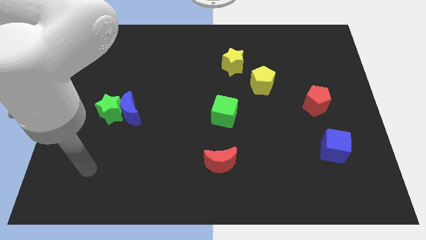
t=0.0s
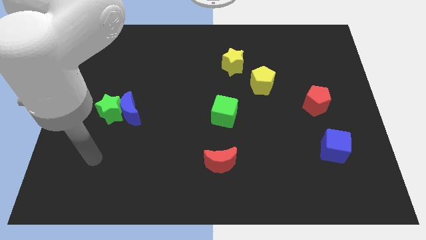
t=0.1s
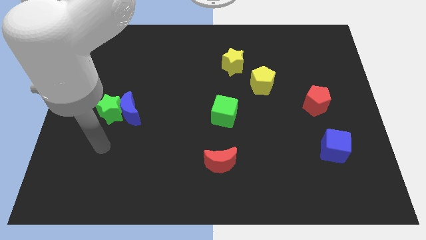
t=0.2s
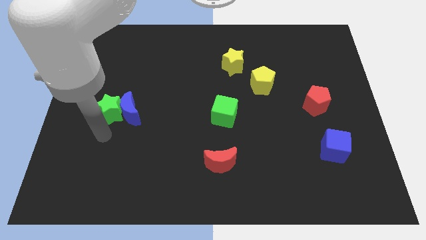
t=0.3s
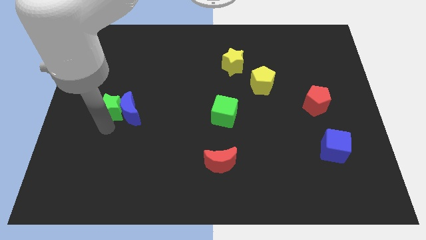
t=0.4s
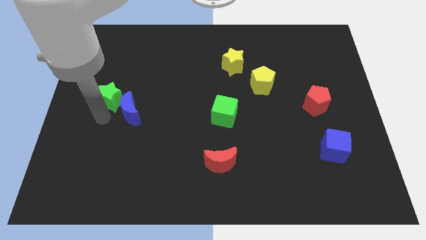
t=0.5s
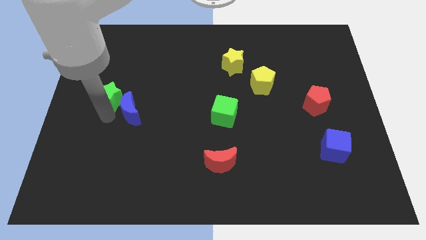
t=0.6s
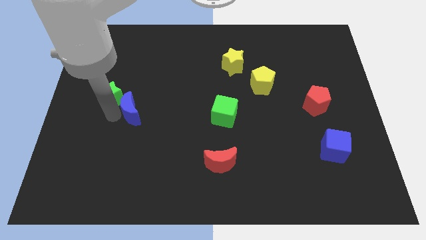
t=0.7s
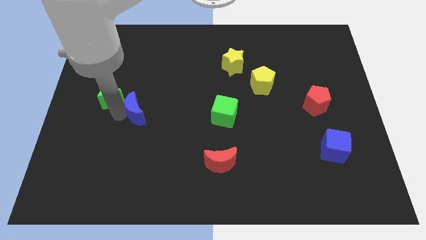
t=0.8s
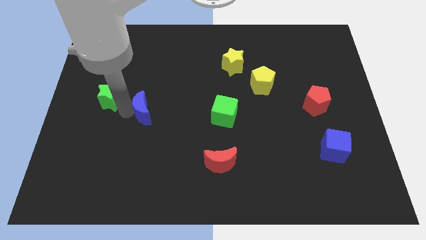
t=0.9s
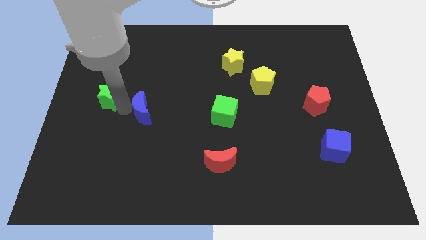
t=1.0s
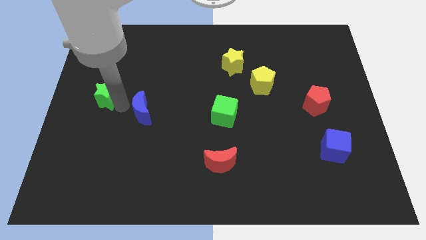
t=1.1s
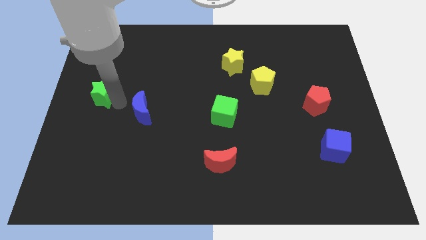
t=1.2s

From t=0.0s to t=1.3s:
pull the blue moon apart from the green star

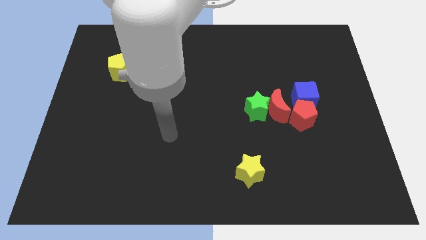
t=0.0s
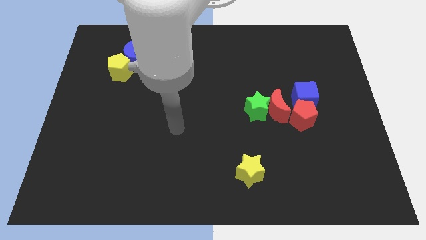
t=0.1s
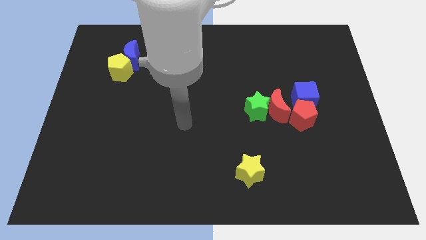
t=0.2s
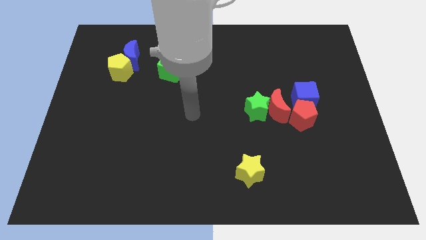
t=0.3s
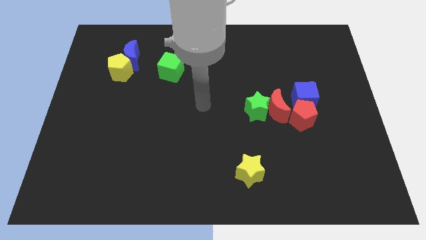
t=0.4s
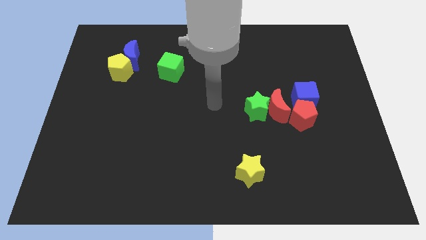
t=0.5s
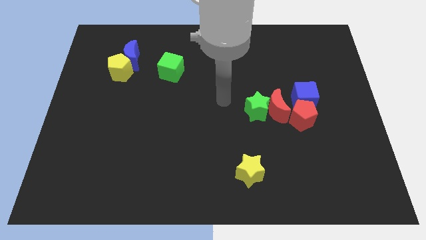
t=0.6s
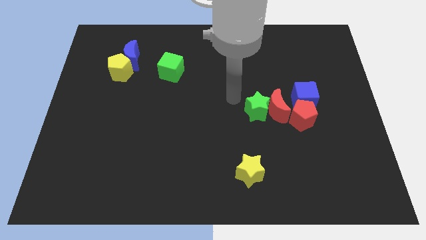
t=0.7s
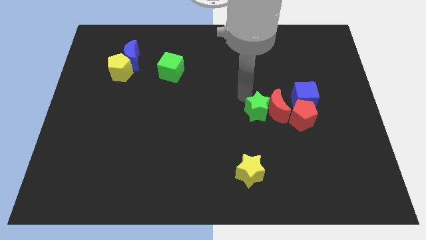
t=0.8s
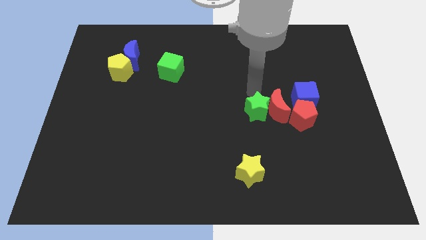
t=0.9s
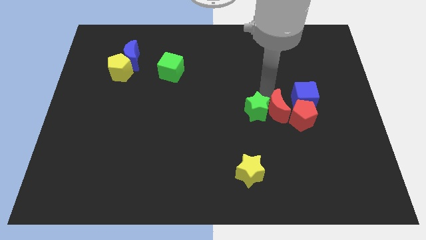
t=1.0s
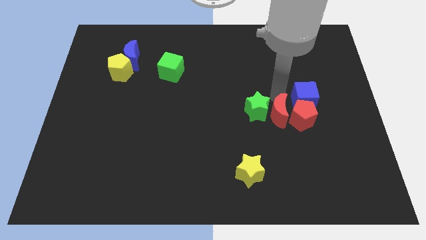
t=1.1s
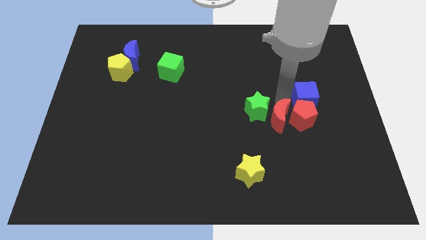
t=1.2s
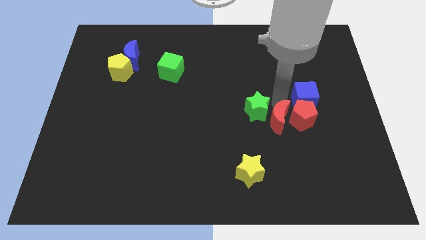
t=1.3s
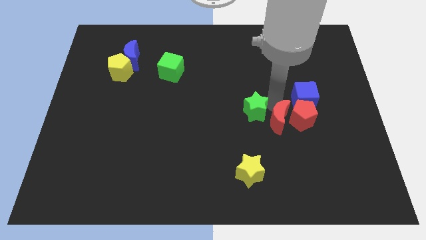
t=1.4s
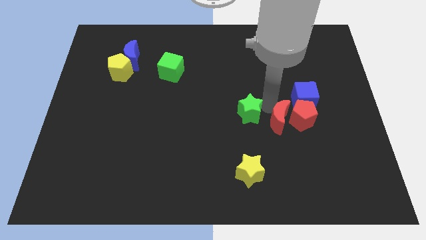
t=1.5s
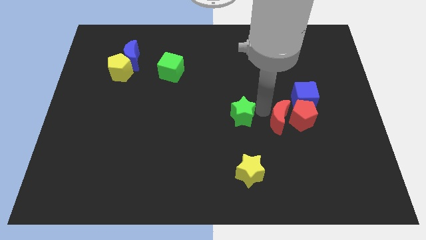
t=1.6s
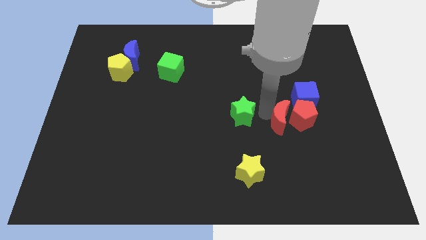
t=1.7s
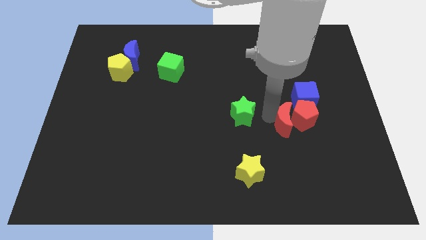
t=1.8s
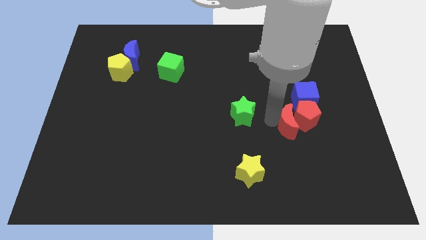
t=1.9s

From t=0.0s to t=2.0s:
move the green star away from the red moon

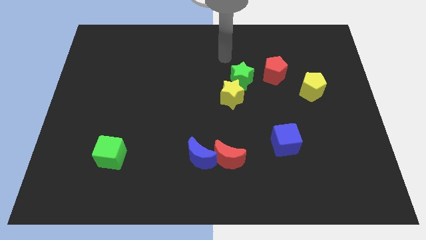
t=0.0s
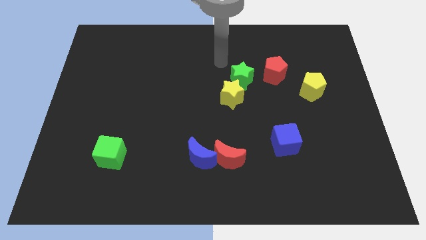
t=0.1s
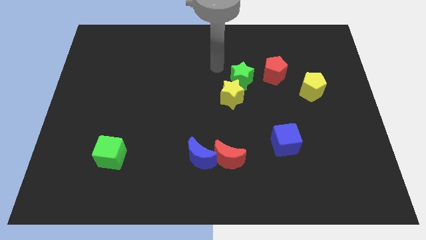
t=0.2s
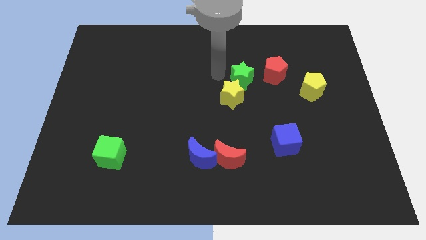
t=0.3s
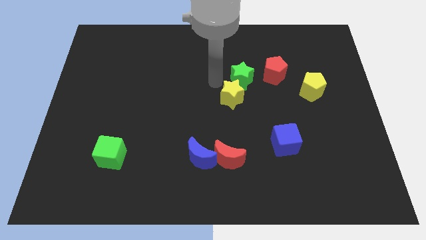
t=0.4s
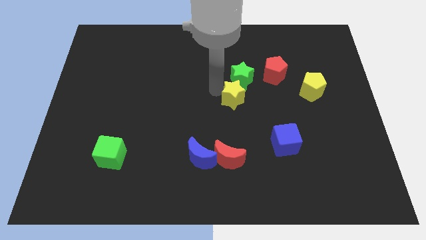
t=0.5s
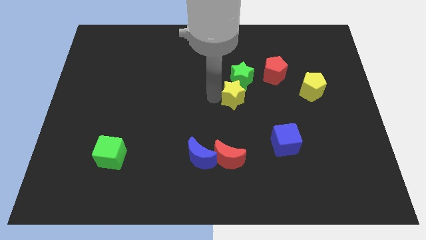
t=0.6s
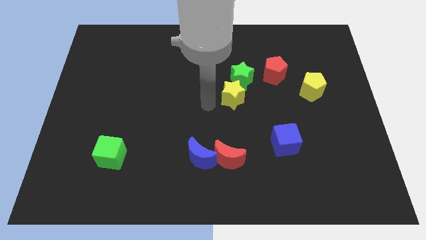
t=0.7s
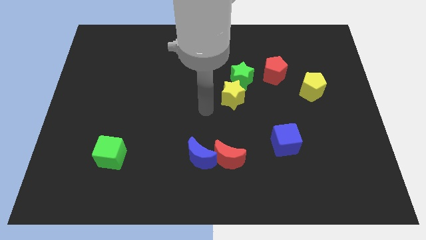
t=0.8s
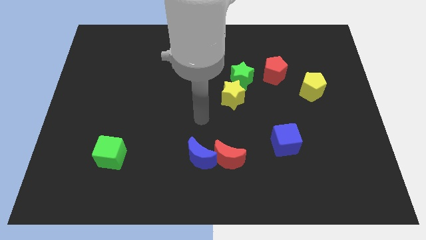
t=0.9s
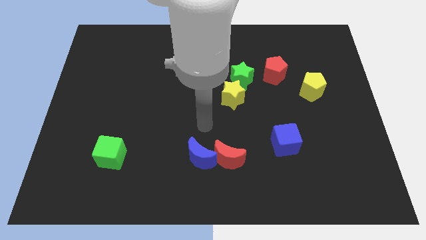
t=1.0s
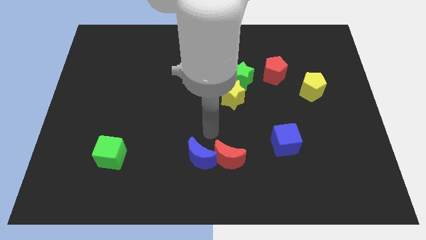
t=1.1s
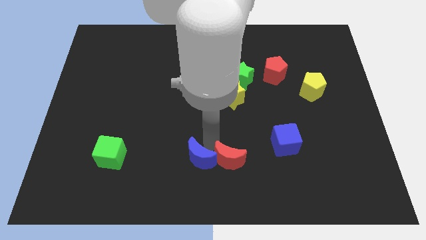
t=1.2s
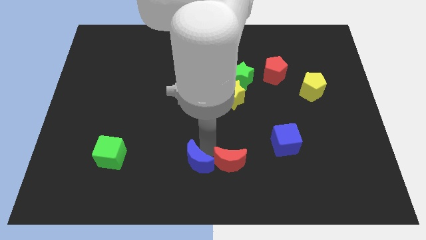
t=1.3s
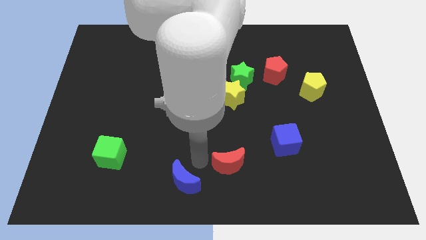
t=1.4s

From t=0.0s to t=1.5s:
separate the red moon from the blue moon

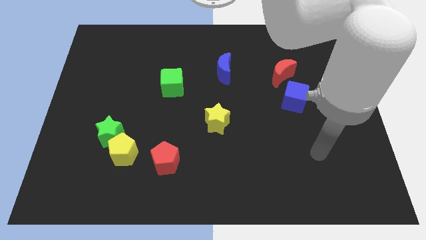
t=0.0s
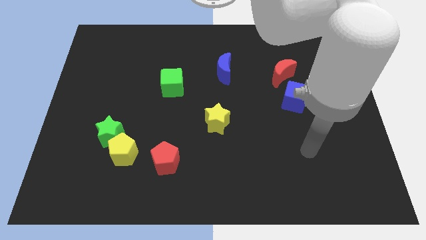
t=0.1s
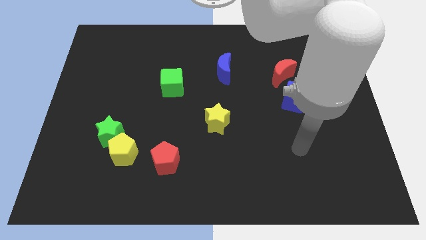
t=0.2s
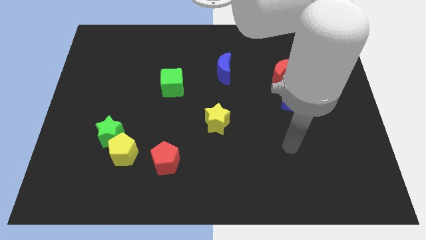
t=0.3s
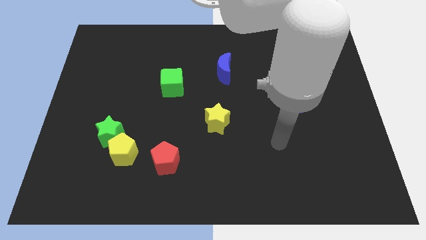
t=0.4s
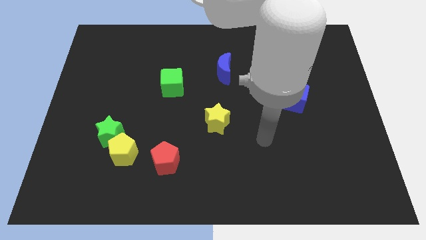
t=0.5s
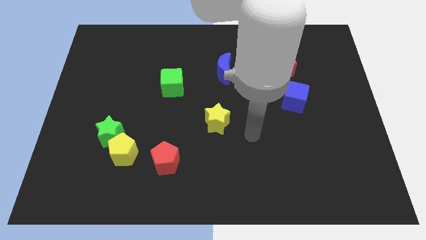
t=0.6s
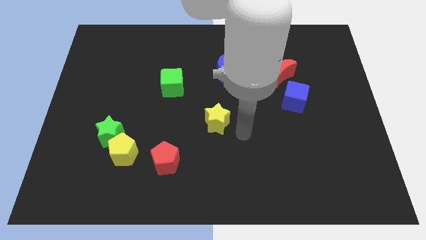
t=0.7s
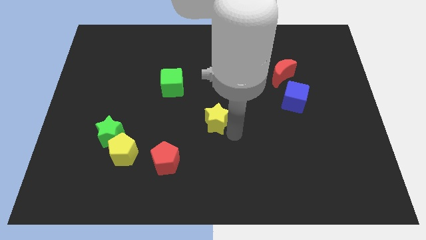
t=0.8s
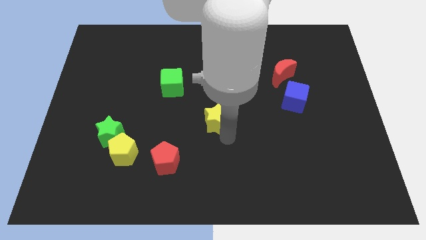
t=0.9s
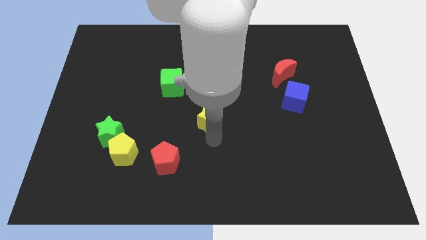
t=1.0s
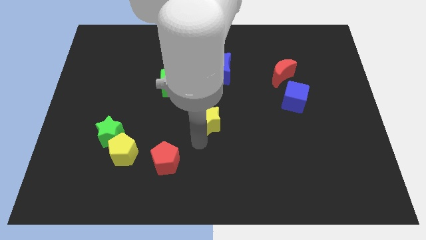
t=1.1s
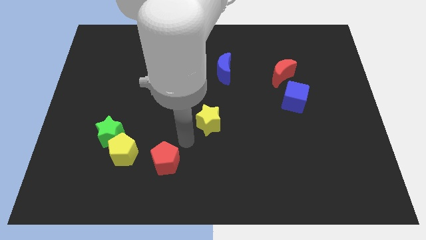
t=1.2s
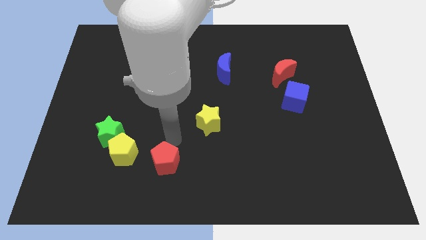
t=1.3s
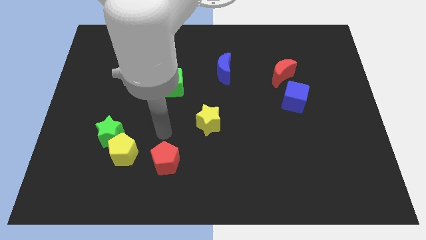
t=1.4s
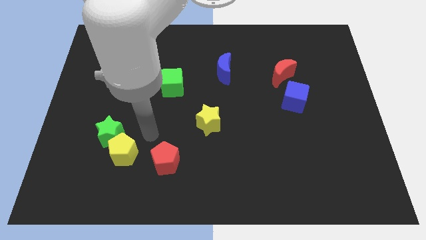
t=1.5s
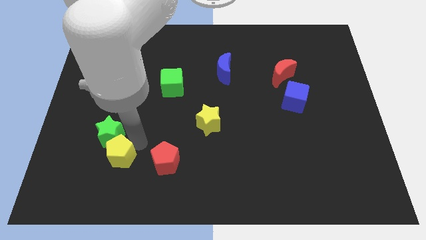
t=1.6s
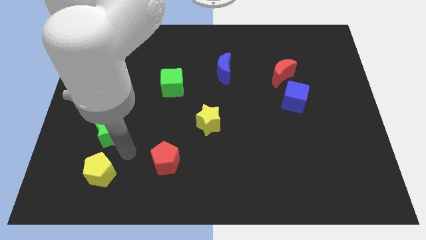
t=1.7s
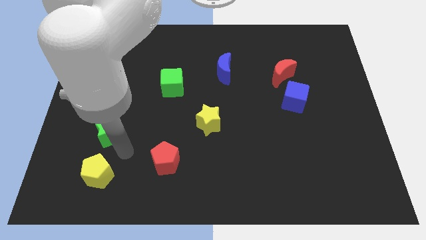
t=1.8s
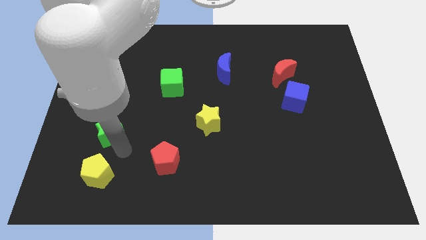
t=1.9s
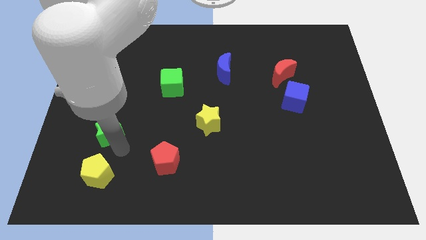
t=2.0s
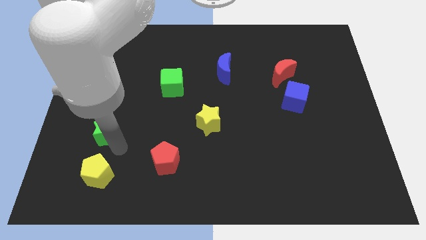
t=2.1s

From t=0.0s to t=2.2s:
separate the green star from the yellow pentagon

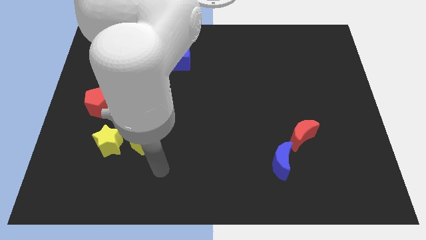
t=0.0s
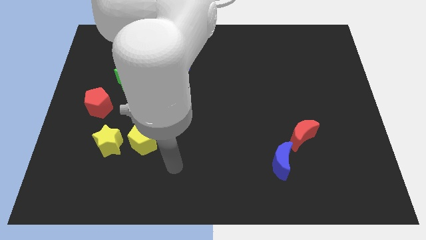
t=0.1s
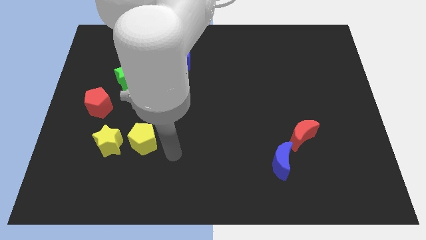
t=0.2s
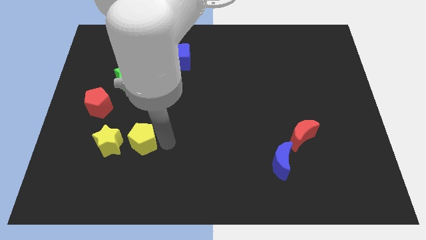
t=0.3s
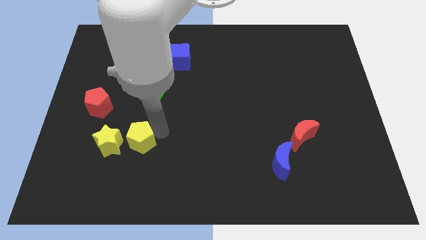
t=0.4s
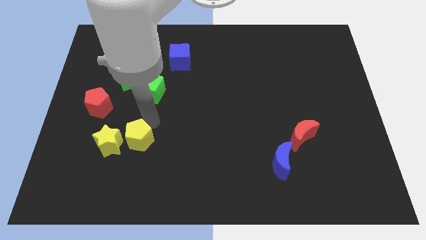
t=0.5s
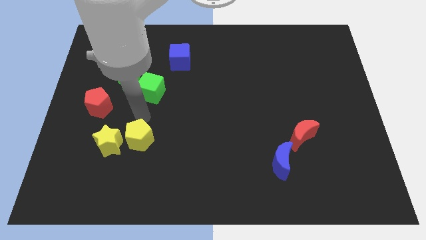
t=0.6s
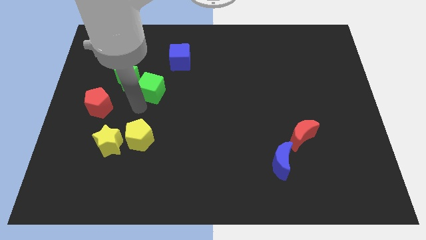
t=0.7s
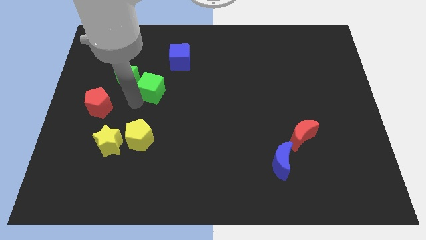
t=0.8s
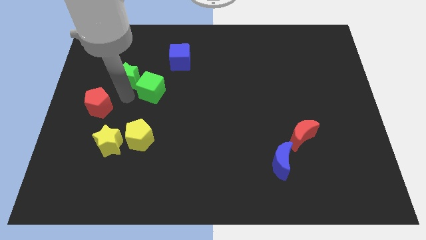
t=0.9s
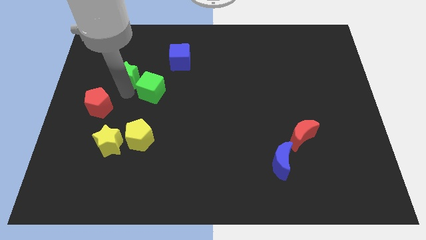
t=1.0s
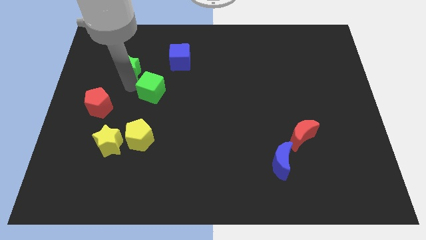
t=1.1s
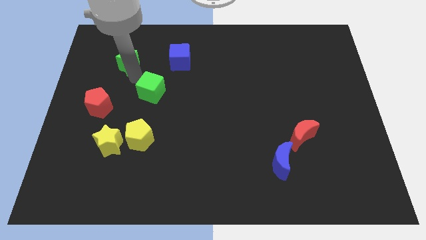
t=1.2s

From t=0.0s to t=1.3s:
move the green cube away from the green star

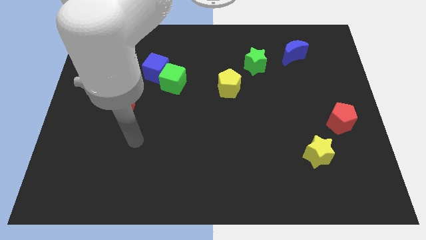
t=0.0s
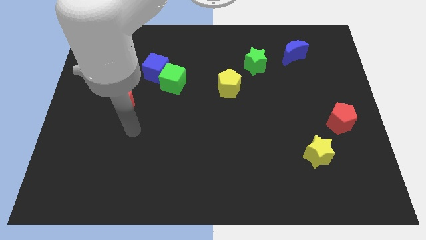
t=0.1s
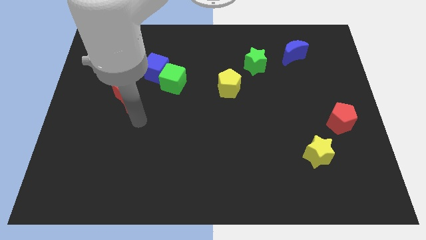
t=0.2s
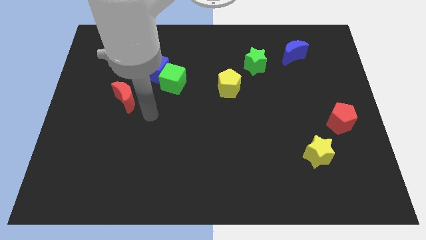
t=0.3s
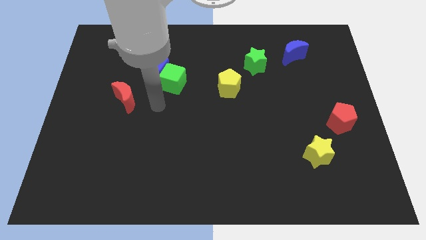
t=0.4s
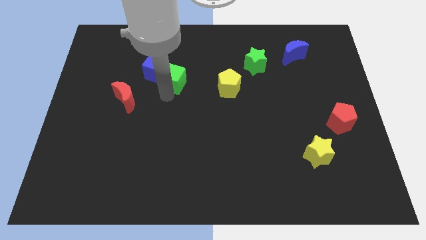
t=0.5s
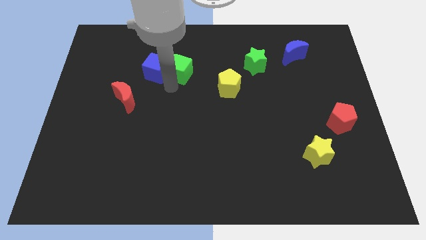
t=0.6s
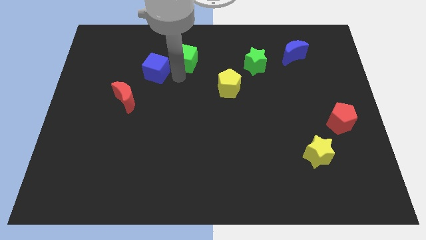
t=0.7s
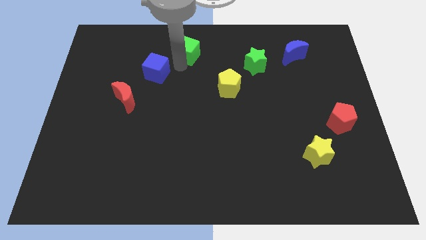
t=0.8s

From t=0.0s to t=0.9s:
pull the blue cube apart from the green cube
